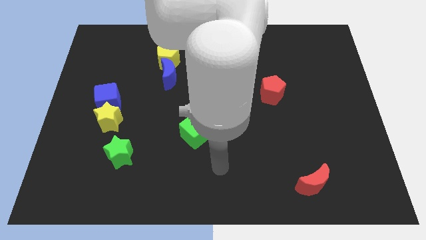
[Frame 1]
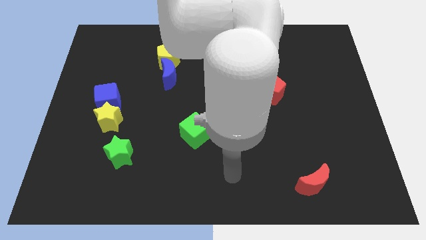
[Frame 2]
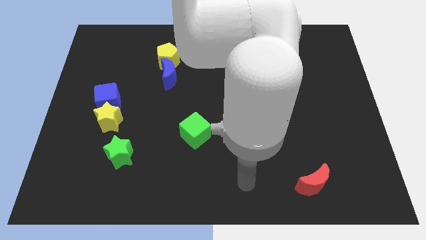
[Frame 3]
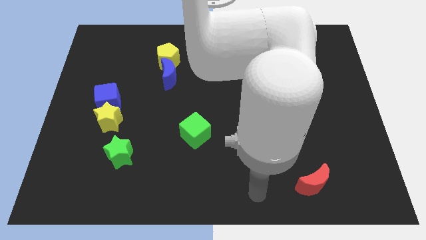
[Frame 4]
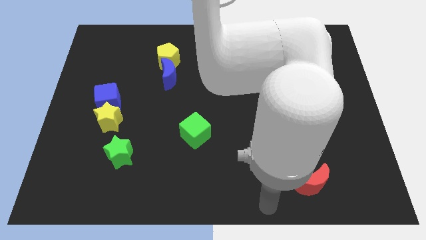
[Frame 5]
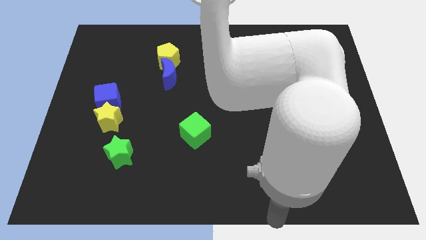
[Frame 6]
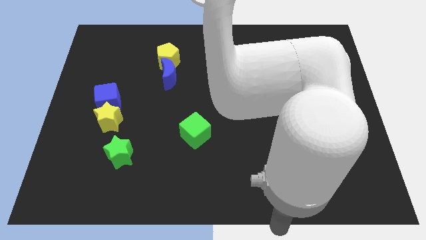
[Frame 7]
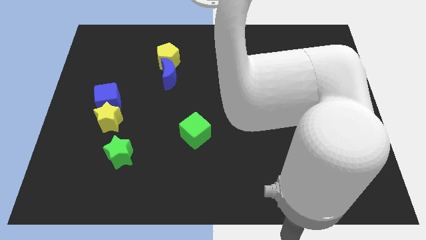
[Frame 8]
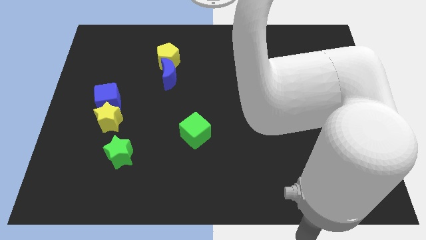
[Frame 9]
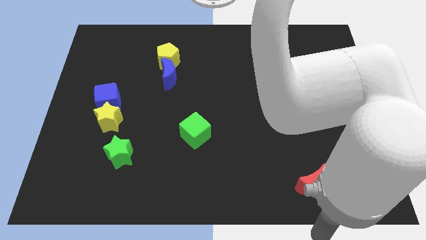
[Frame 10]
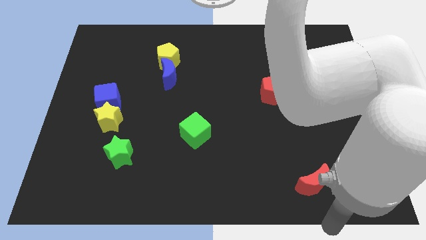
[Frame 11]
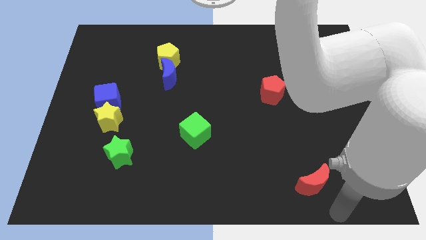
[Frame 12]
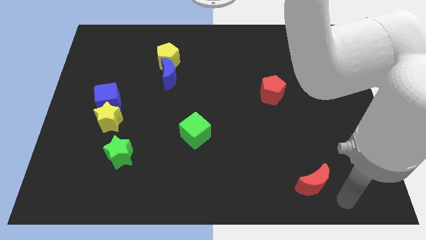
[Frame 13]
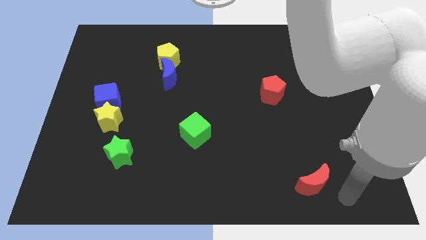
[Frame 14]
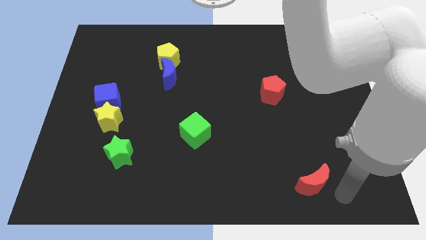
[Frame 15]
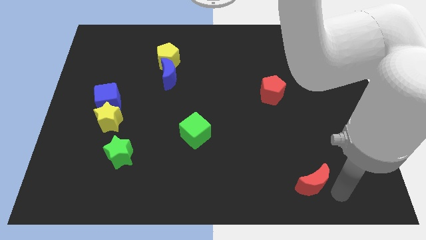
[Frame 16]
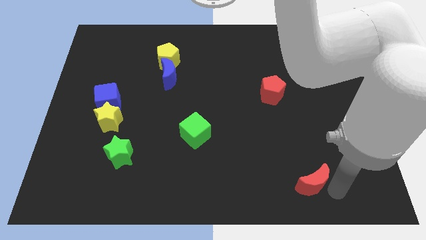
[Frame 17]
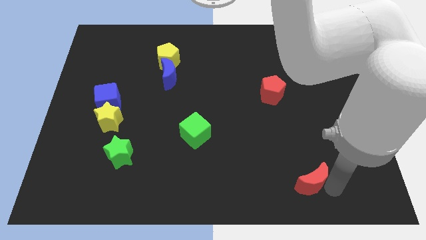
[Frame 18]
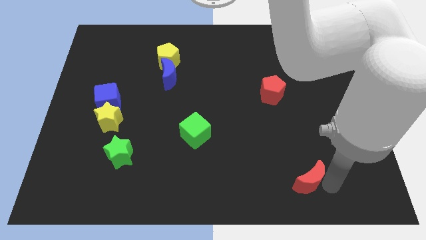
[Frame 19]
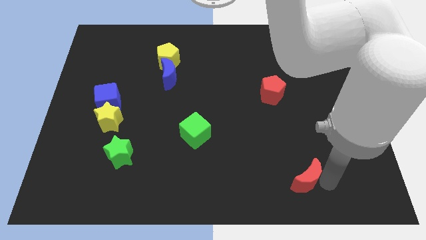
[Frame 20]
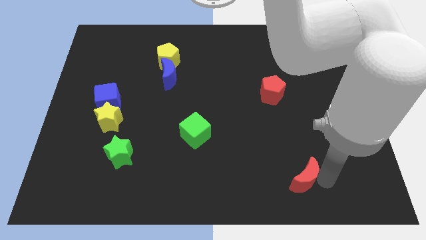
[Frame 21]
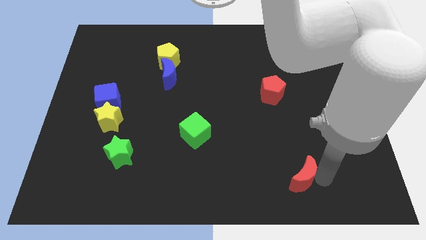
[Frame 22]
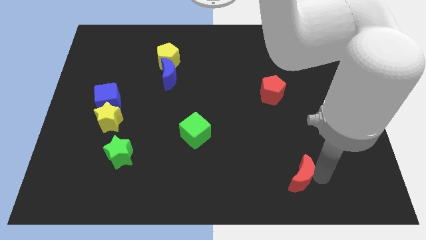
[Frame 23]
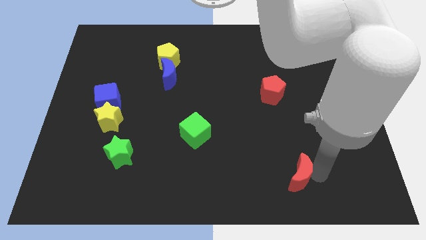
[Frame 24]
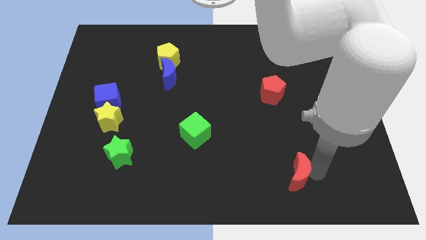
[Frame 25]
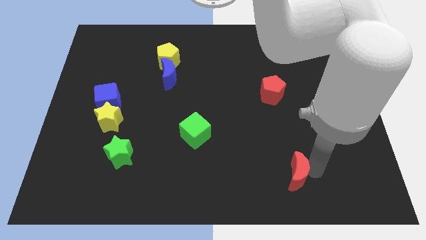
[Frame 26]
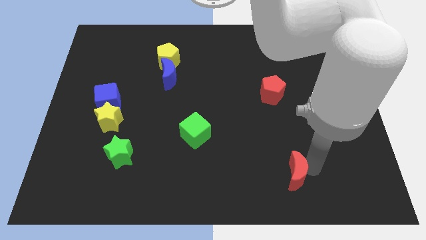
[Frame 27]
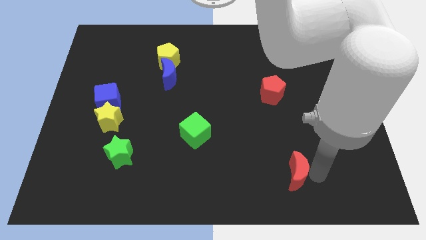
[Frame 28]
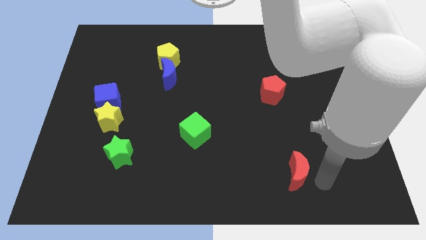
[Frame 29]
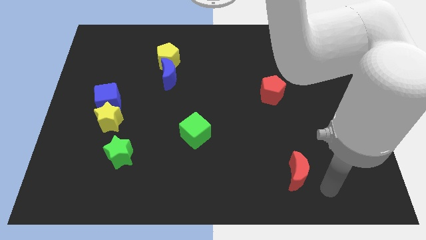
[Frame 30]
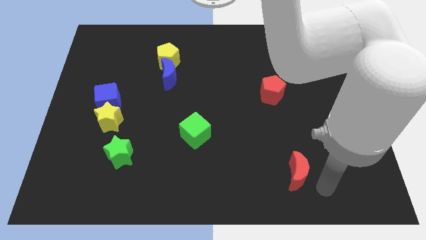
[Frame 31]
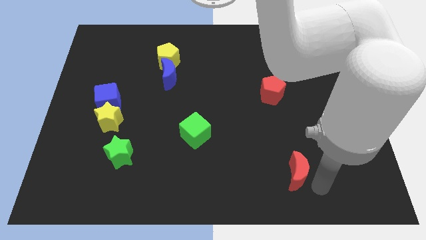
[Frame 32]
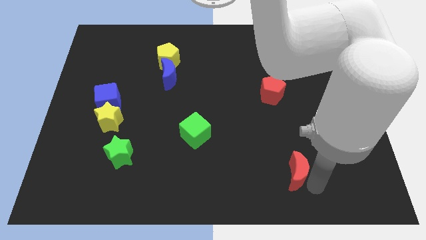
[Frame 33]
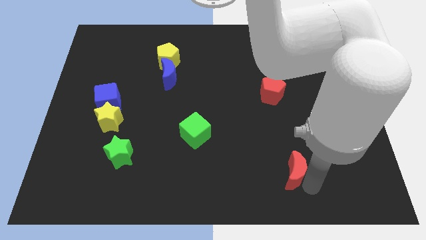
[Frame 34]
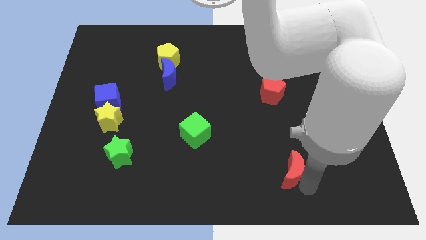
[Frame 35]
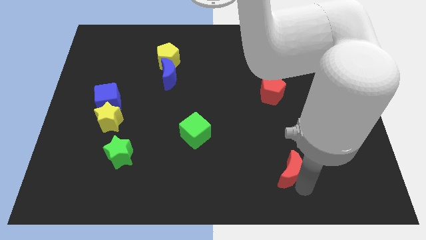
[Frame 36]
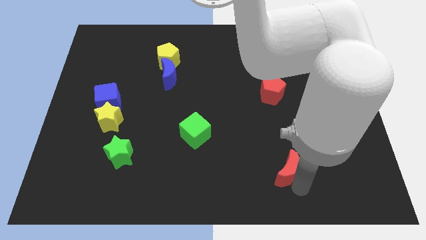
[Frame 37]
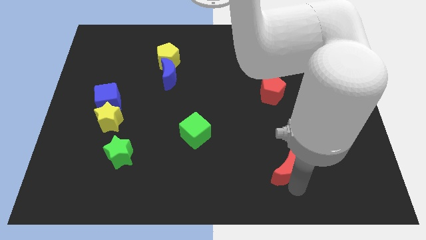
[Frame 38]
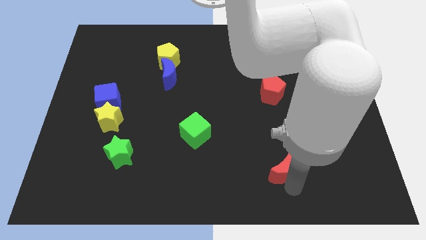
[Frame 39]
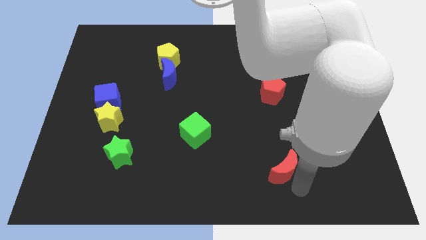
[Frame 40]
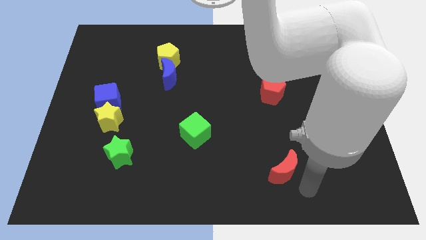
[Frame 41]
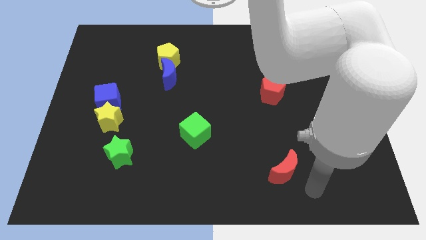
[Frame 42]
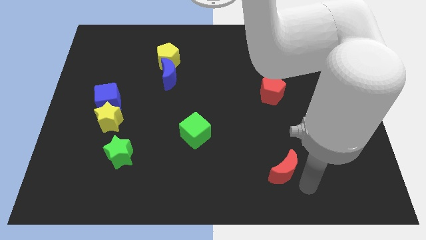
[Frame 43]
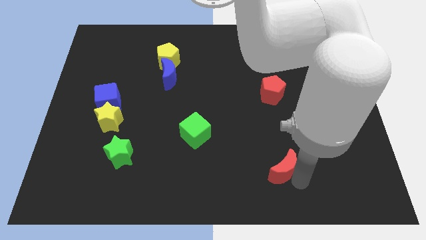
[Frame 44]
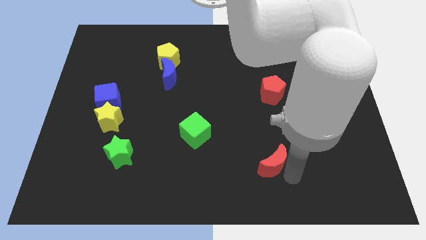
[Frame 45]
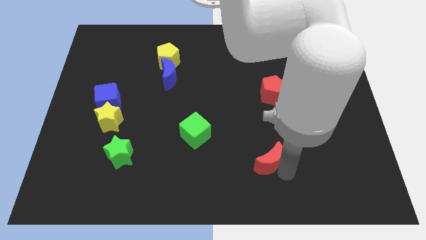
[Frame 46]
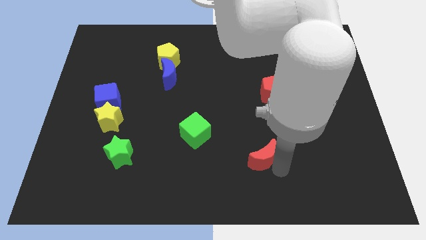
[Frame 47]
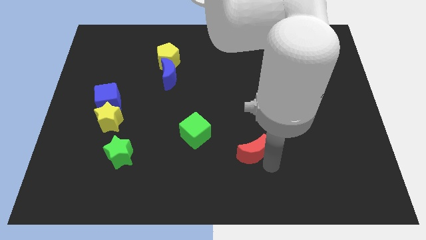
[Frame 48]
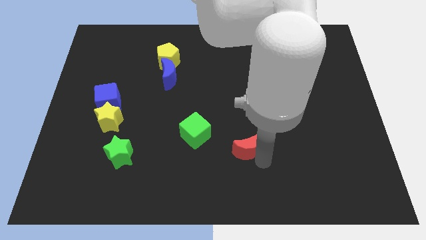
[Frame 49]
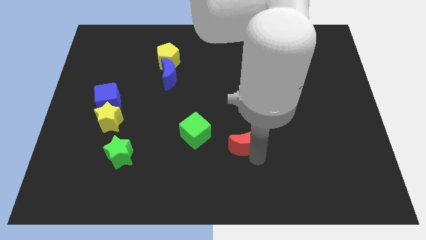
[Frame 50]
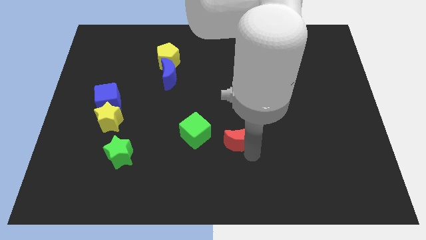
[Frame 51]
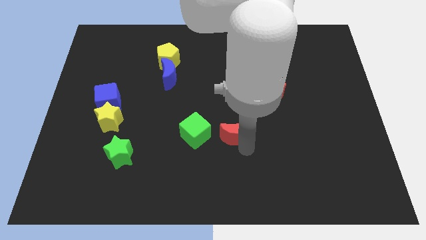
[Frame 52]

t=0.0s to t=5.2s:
slide the red moon to the center

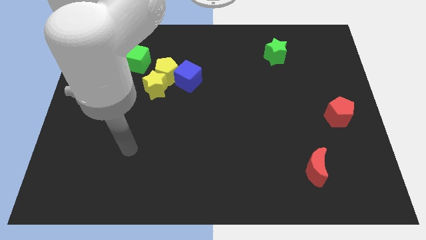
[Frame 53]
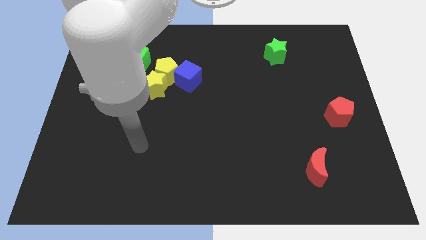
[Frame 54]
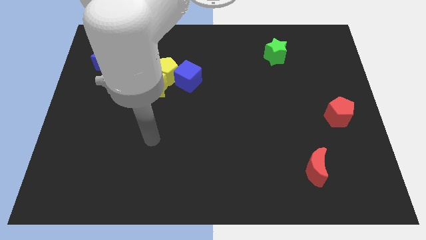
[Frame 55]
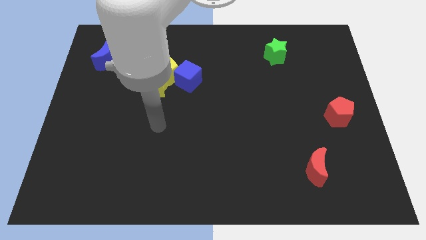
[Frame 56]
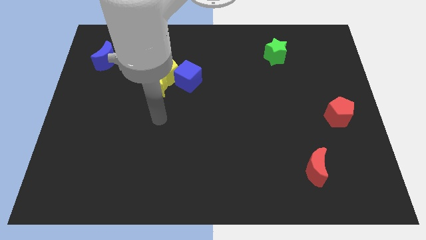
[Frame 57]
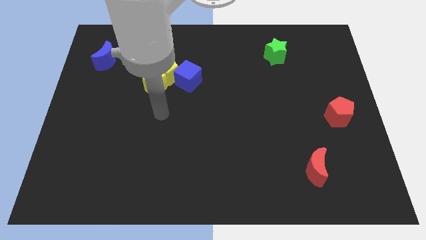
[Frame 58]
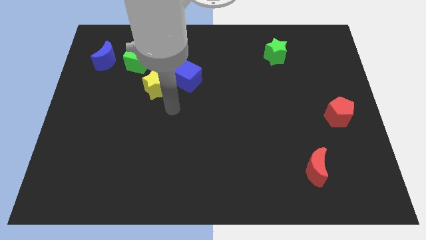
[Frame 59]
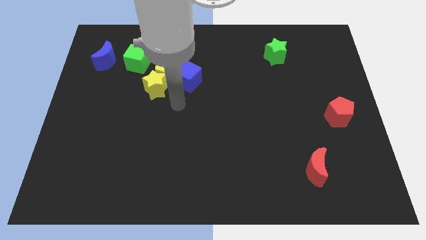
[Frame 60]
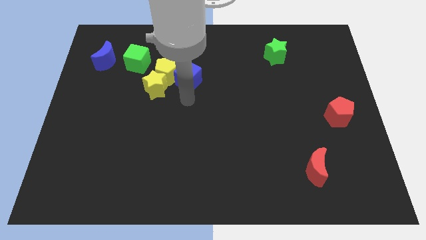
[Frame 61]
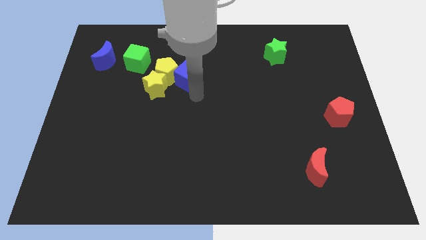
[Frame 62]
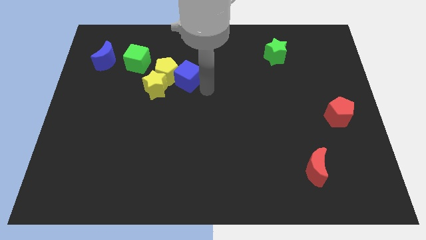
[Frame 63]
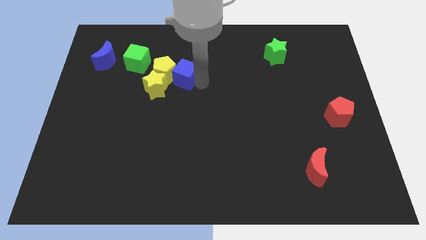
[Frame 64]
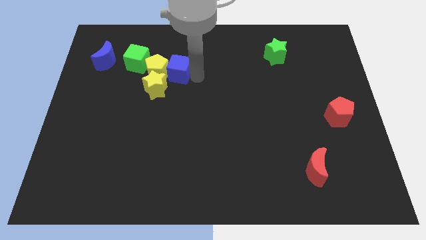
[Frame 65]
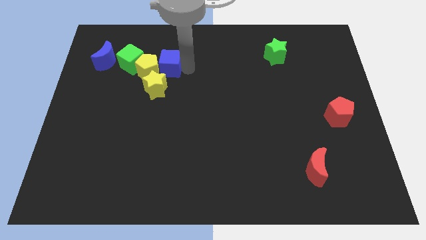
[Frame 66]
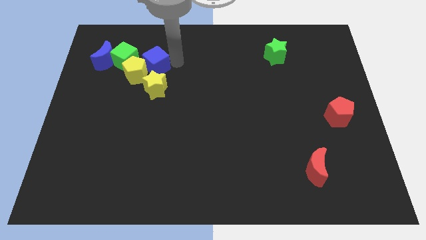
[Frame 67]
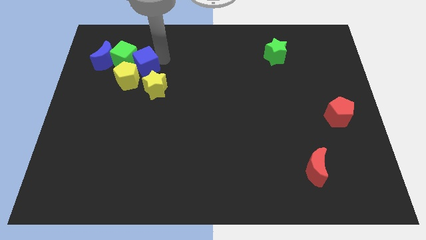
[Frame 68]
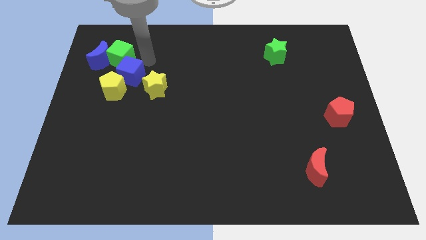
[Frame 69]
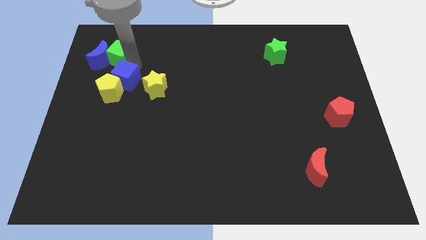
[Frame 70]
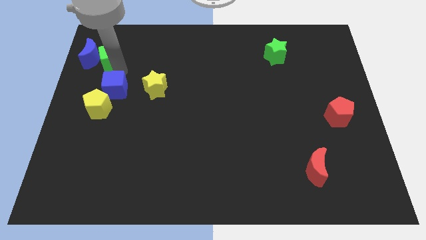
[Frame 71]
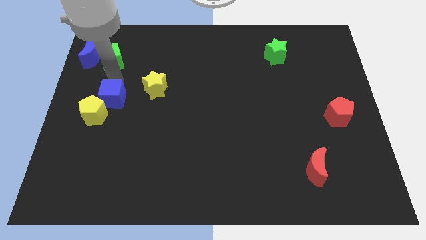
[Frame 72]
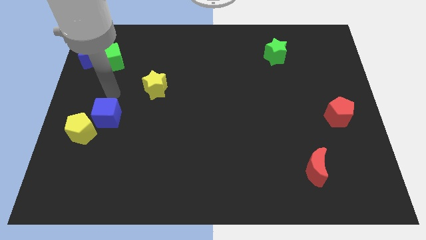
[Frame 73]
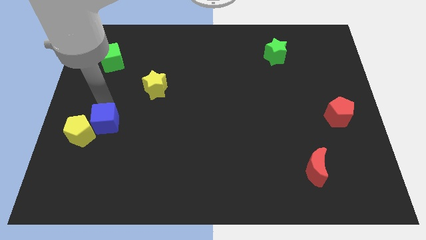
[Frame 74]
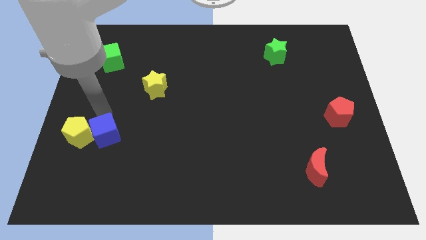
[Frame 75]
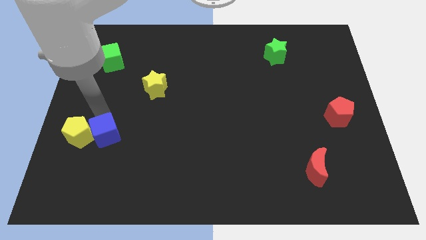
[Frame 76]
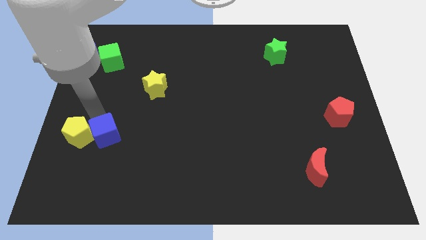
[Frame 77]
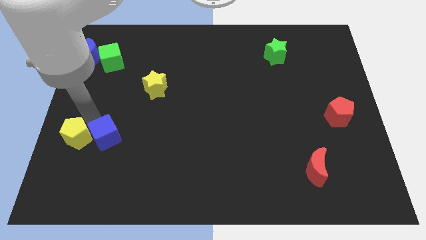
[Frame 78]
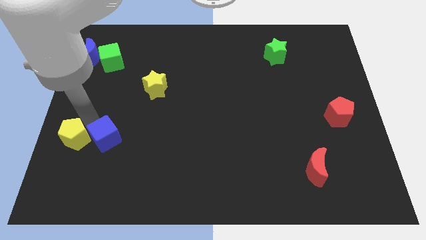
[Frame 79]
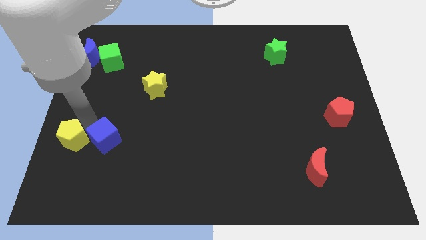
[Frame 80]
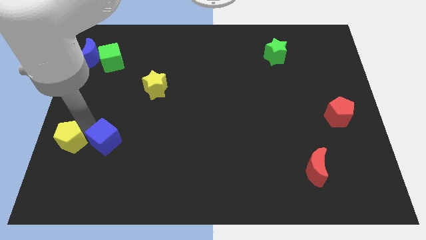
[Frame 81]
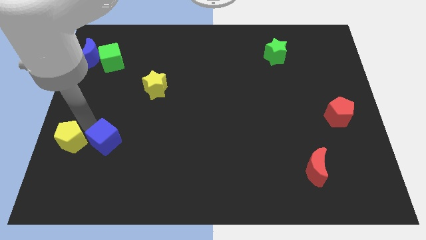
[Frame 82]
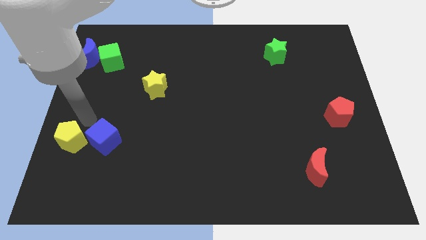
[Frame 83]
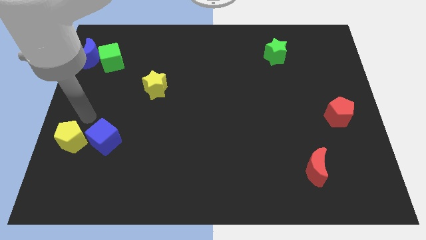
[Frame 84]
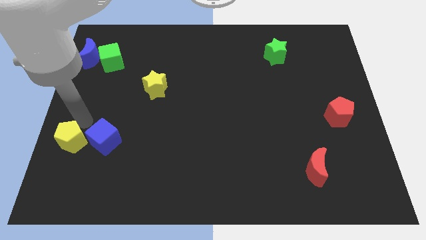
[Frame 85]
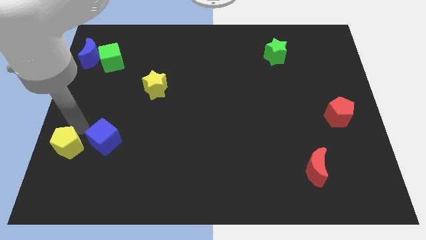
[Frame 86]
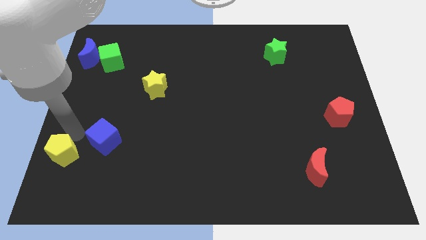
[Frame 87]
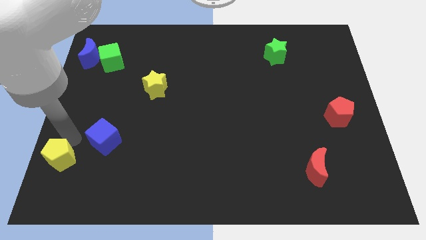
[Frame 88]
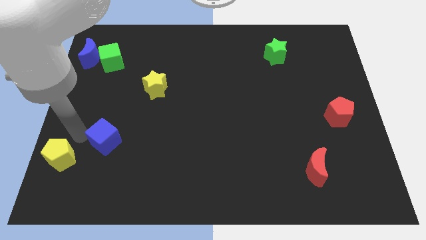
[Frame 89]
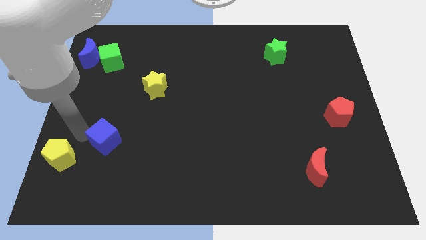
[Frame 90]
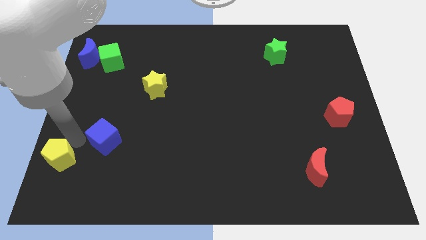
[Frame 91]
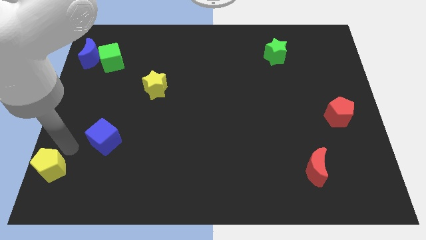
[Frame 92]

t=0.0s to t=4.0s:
slide the yellow pentagon to the bottom left corner
